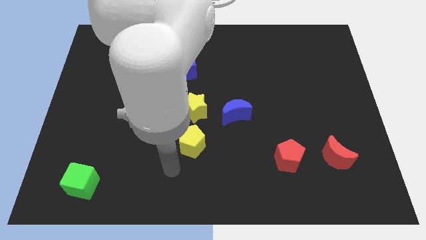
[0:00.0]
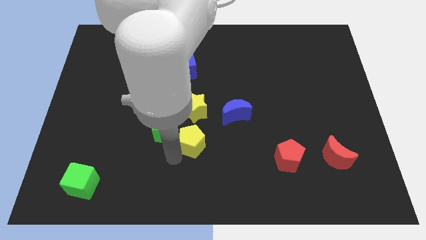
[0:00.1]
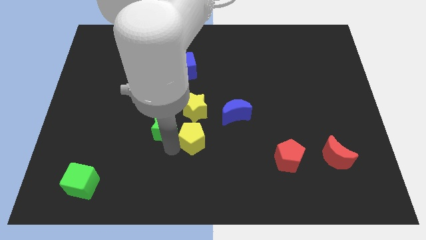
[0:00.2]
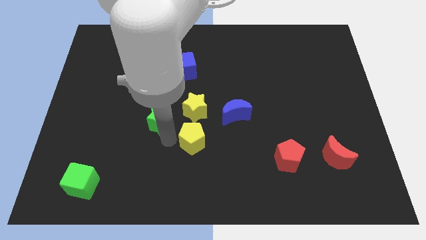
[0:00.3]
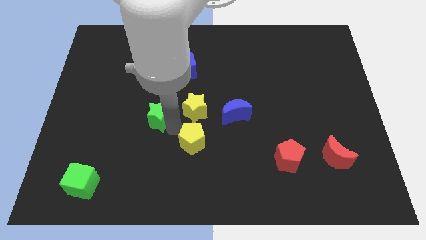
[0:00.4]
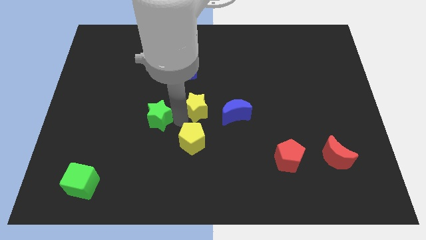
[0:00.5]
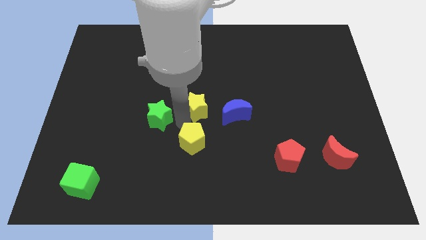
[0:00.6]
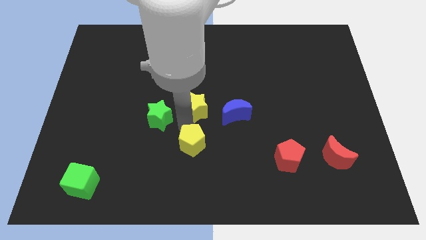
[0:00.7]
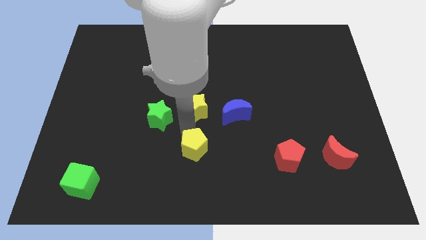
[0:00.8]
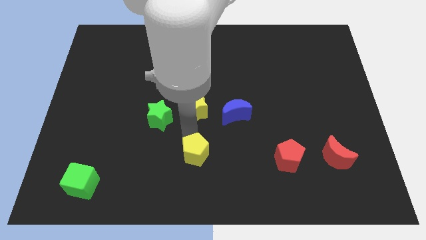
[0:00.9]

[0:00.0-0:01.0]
separate the yellow pentagon from the green star and yellow star

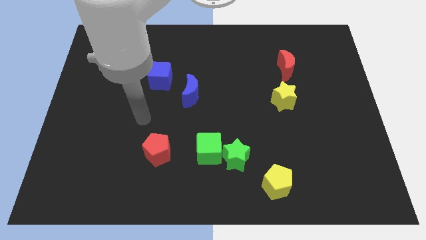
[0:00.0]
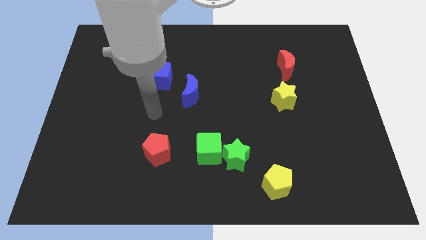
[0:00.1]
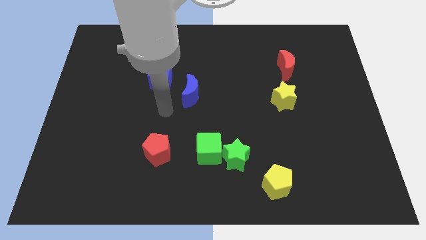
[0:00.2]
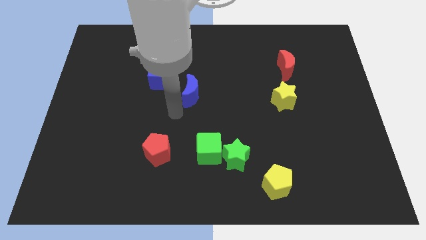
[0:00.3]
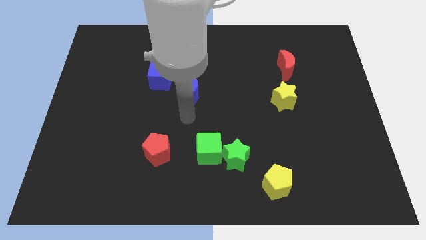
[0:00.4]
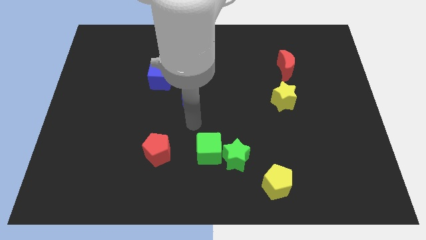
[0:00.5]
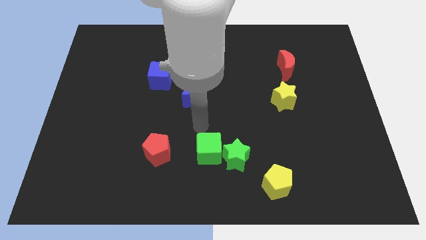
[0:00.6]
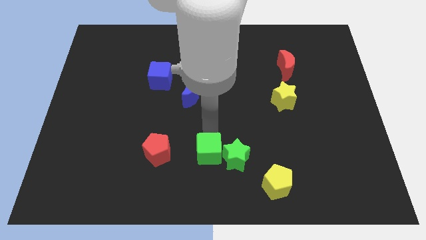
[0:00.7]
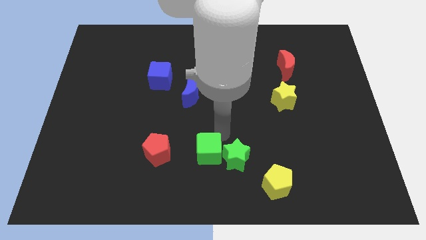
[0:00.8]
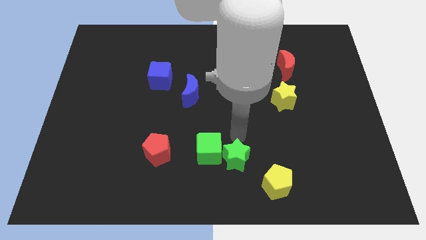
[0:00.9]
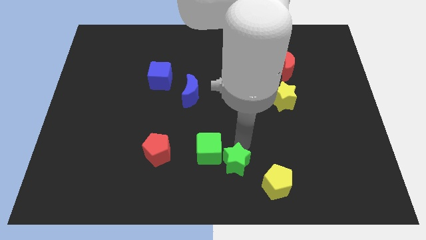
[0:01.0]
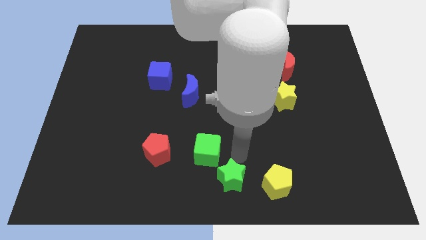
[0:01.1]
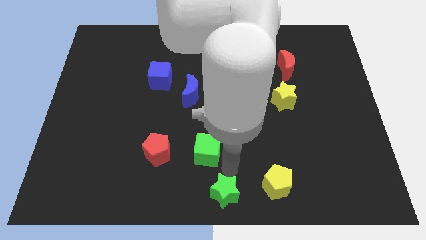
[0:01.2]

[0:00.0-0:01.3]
move the green cube away from the green star

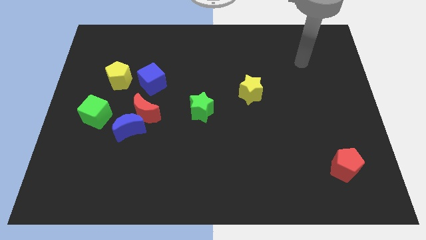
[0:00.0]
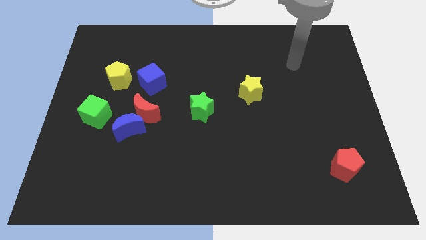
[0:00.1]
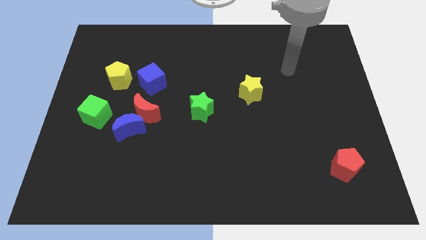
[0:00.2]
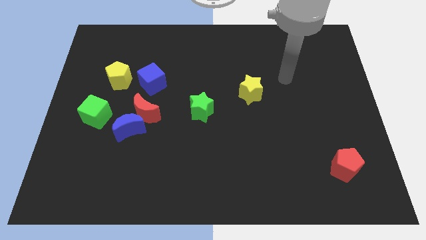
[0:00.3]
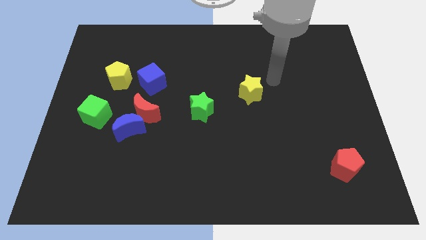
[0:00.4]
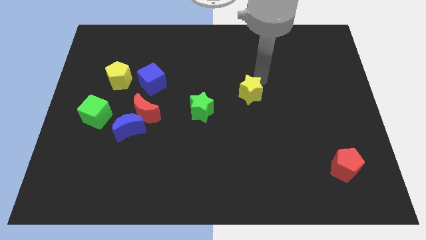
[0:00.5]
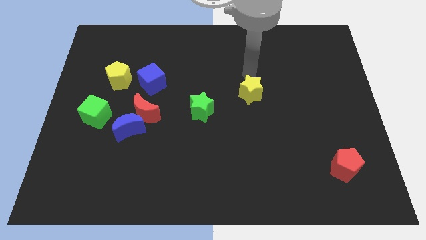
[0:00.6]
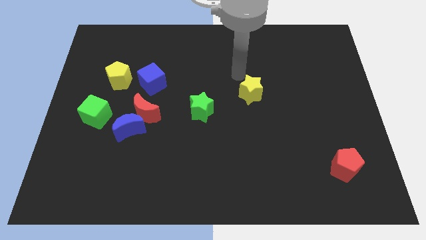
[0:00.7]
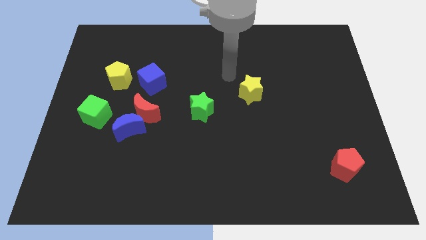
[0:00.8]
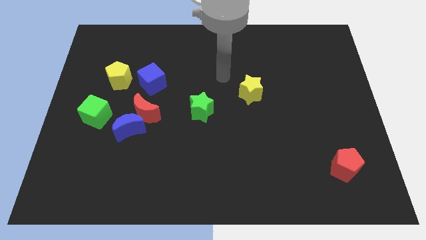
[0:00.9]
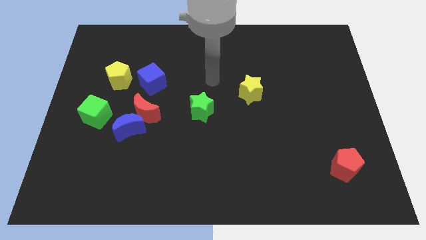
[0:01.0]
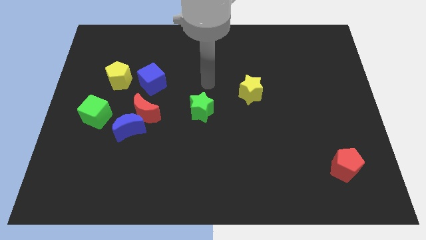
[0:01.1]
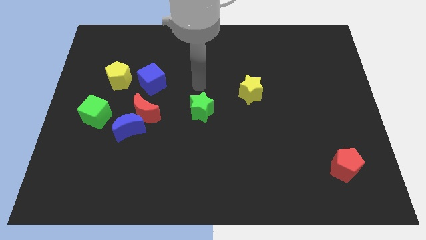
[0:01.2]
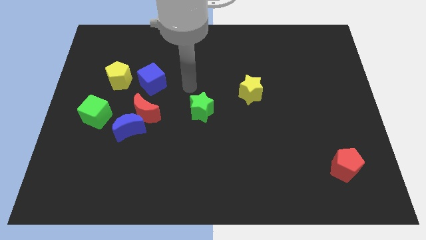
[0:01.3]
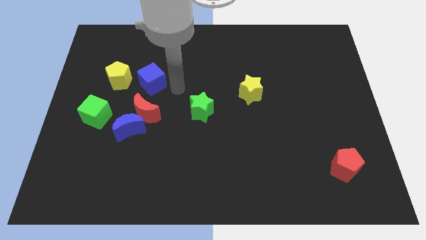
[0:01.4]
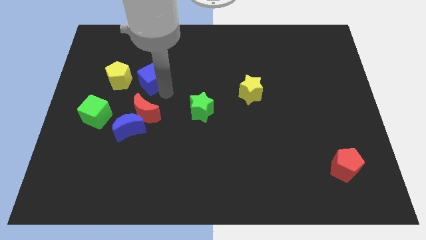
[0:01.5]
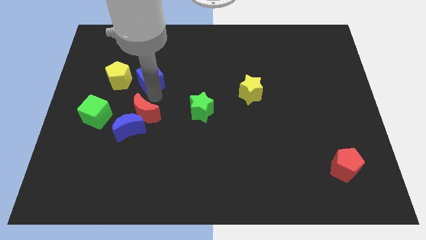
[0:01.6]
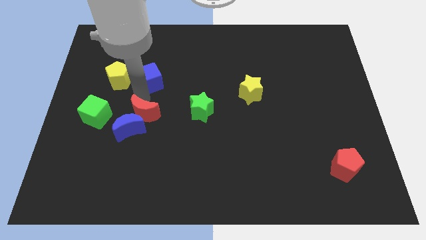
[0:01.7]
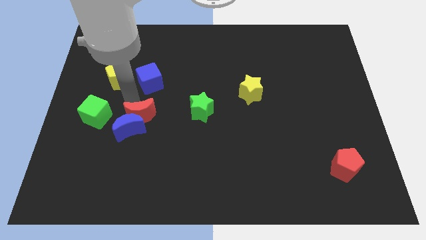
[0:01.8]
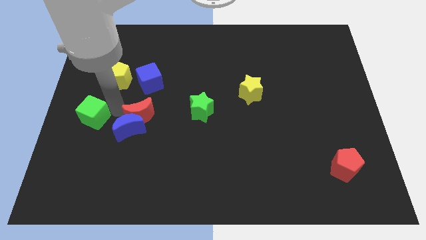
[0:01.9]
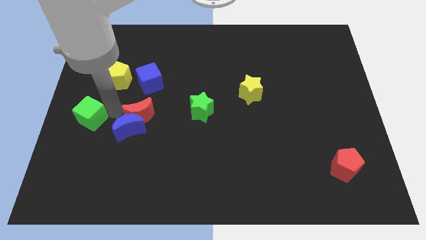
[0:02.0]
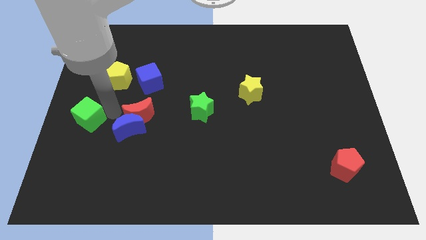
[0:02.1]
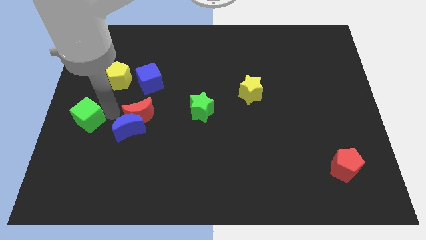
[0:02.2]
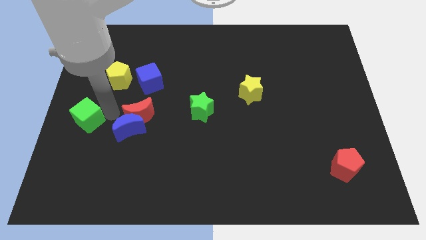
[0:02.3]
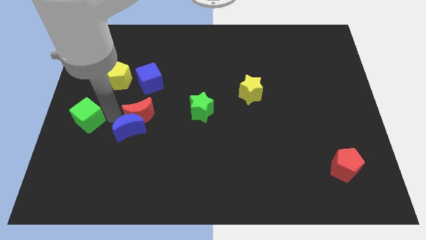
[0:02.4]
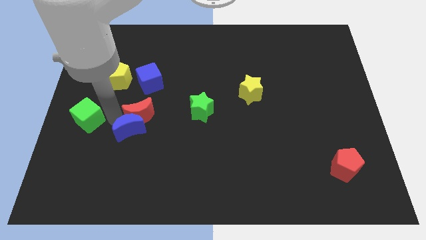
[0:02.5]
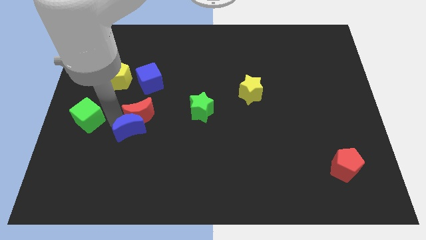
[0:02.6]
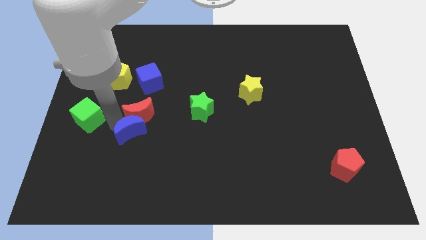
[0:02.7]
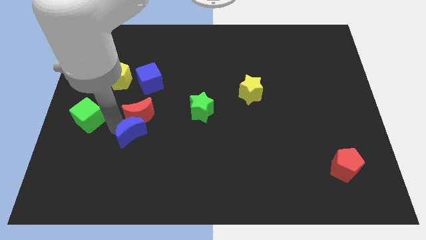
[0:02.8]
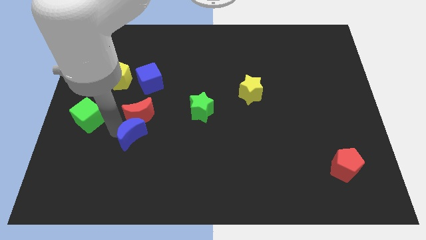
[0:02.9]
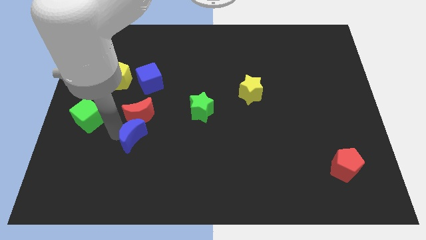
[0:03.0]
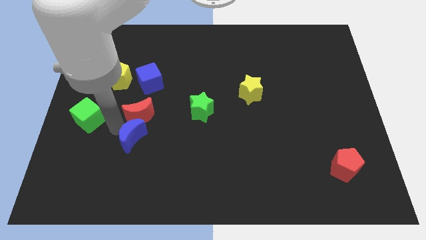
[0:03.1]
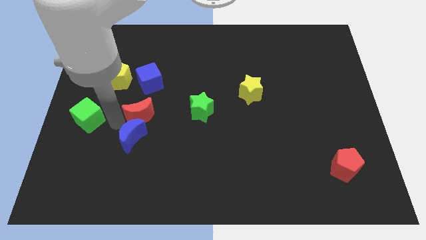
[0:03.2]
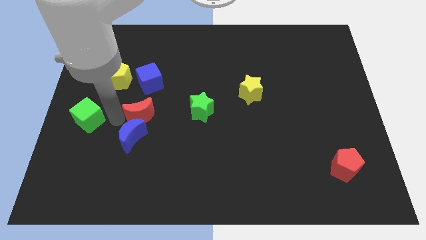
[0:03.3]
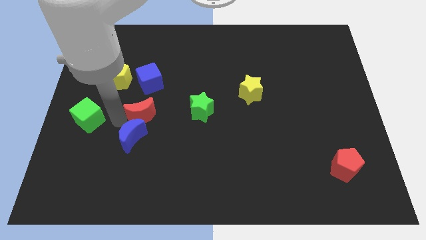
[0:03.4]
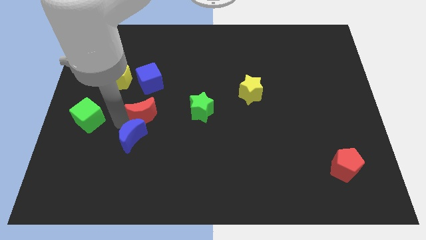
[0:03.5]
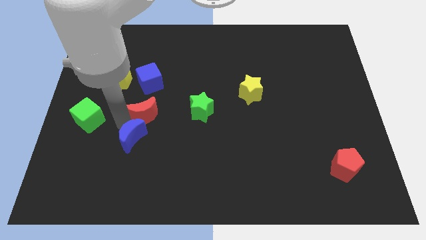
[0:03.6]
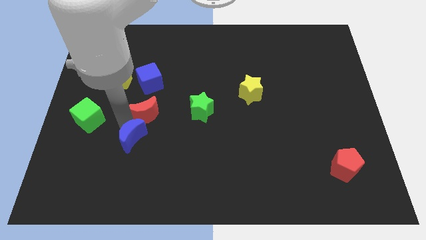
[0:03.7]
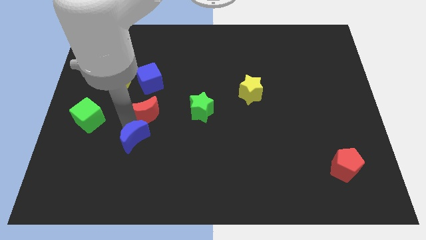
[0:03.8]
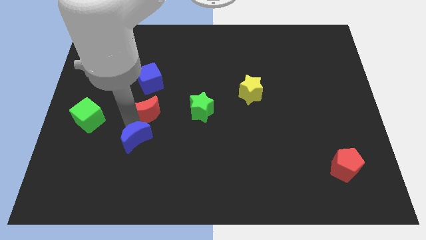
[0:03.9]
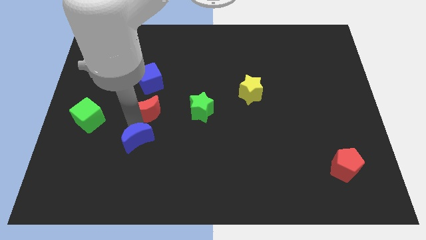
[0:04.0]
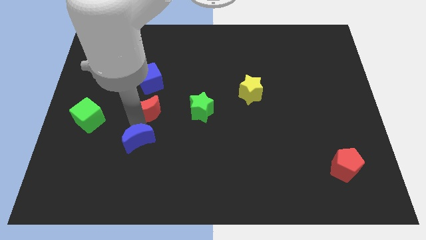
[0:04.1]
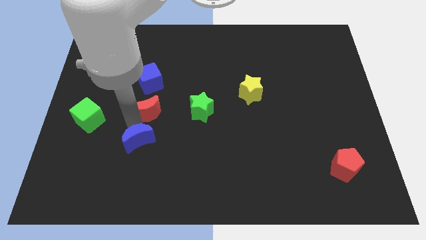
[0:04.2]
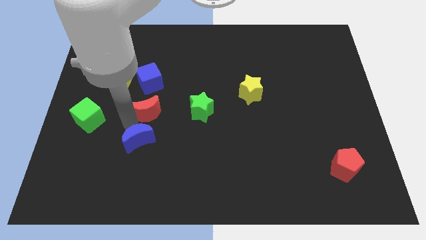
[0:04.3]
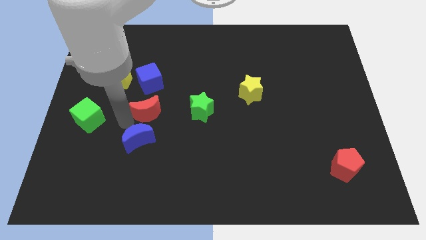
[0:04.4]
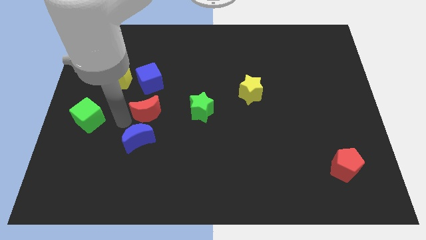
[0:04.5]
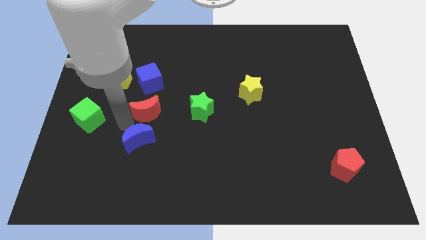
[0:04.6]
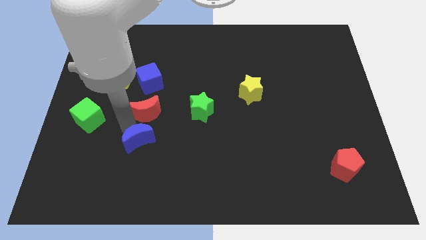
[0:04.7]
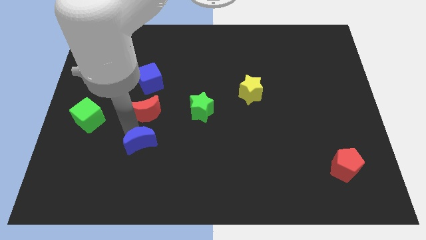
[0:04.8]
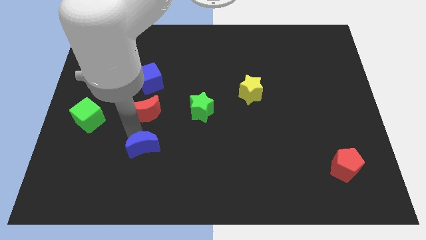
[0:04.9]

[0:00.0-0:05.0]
move the blue moon away from the red moon and green cube

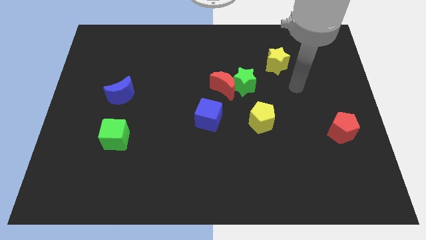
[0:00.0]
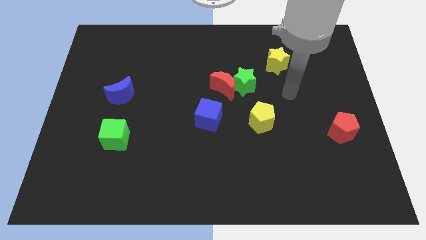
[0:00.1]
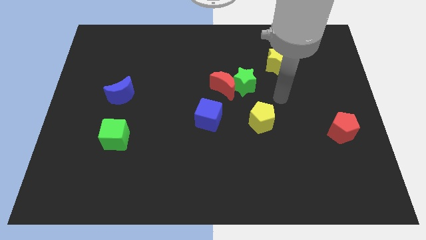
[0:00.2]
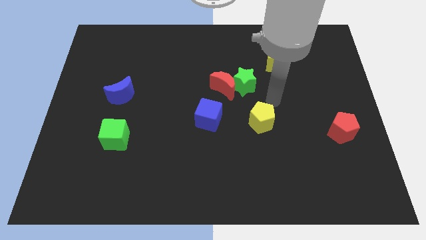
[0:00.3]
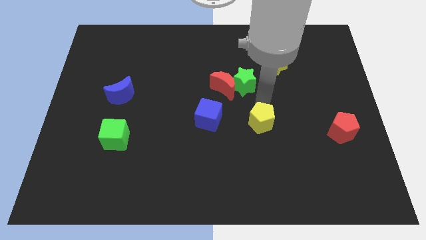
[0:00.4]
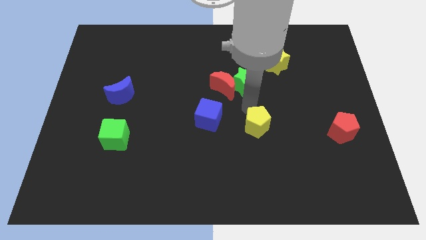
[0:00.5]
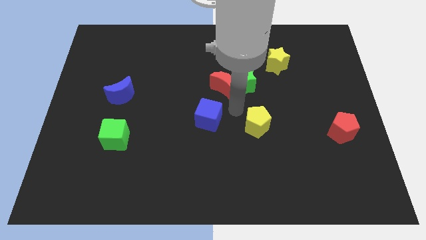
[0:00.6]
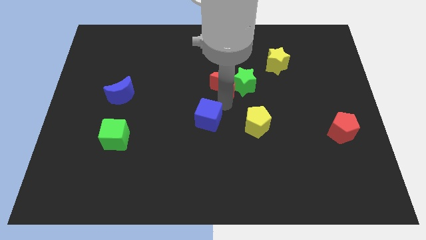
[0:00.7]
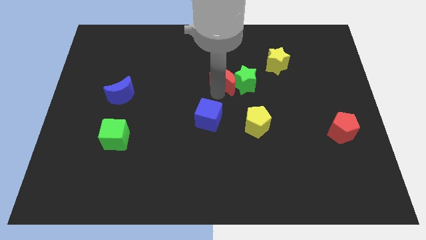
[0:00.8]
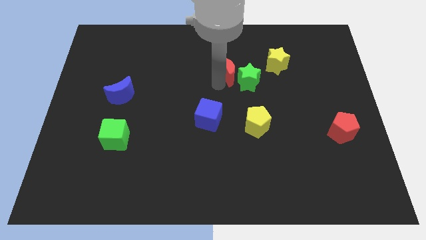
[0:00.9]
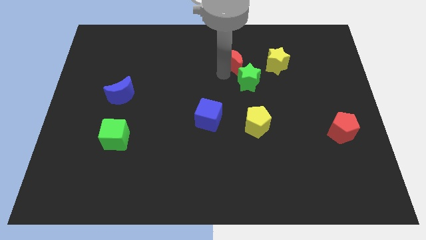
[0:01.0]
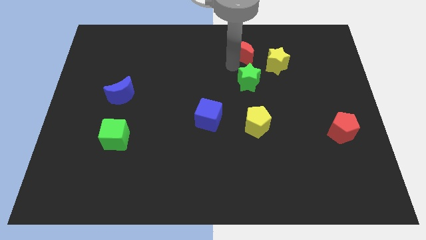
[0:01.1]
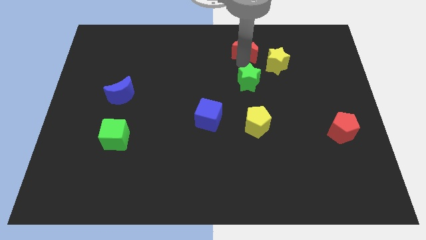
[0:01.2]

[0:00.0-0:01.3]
pull the green star apart from the red moon

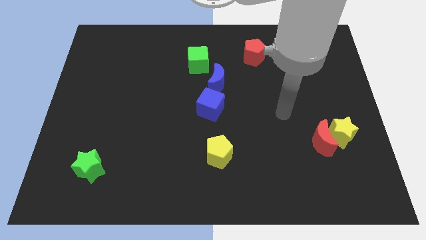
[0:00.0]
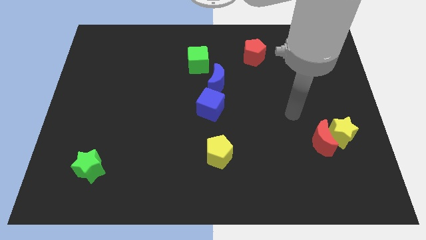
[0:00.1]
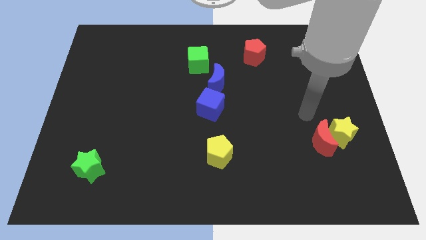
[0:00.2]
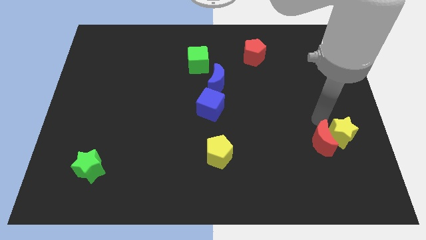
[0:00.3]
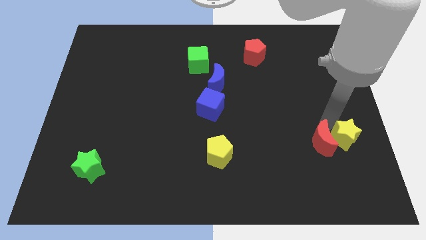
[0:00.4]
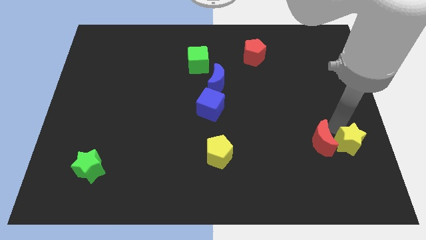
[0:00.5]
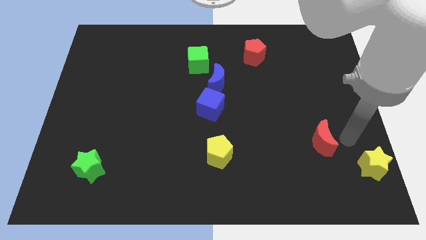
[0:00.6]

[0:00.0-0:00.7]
separate the red moon from the yellow star
